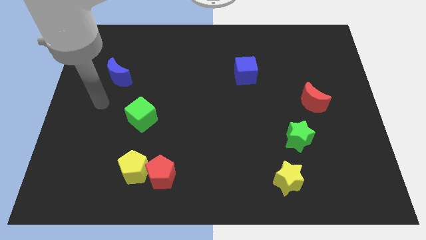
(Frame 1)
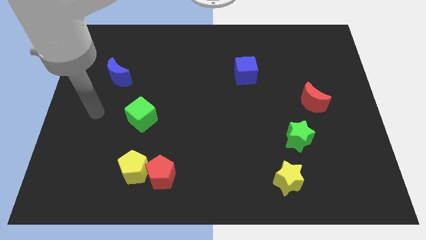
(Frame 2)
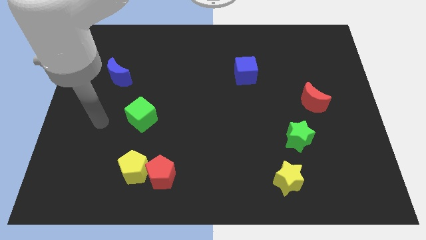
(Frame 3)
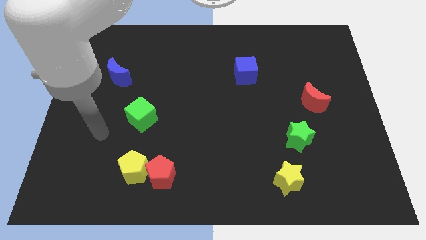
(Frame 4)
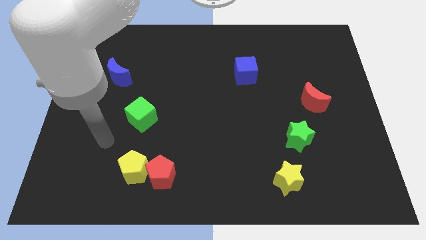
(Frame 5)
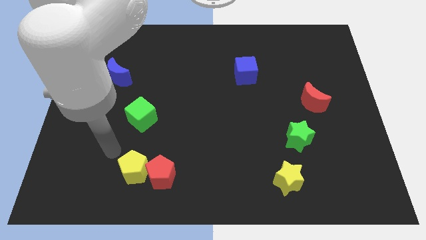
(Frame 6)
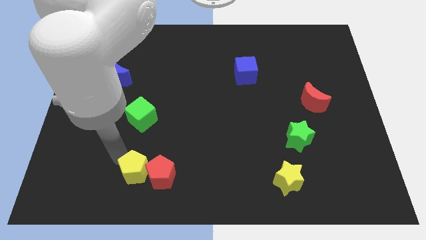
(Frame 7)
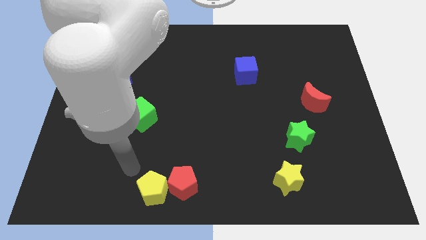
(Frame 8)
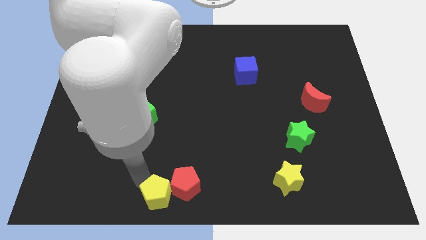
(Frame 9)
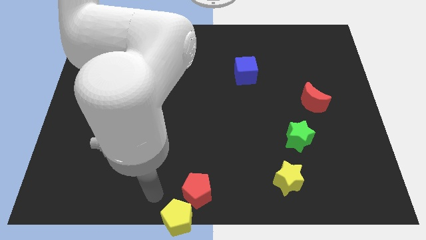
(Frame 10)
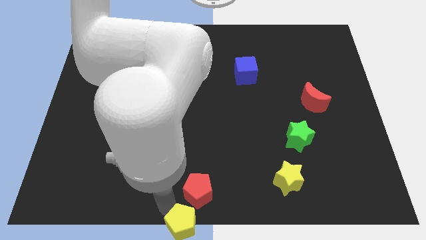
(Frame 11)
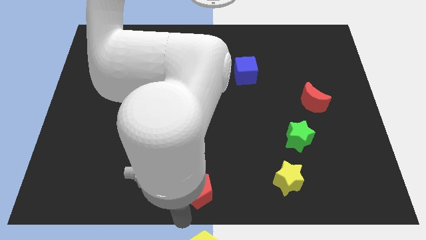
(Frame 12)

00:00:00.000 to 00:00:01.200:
separate the red pentagon from the yellow pentagon

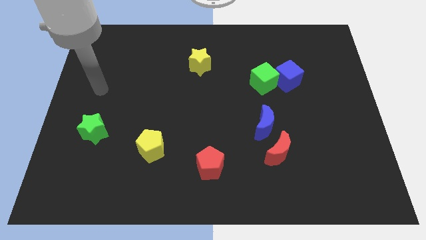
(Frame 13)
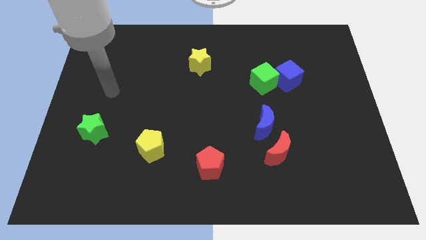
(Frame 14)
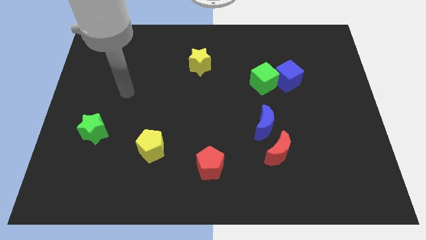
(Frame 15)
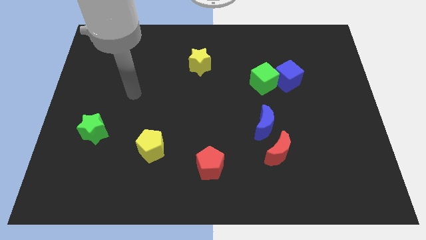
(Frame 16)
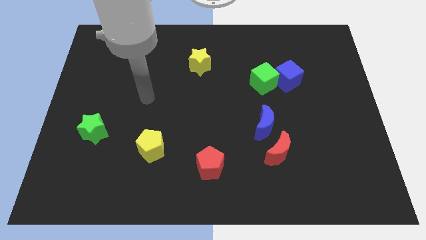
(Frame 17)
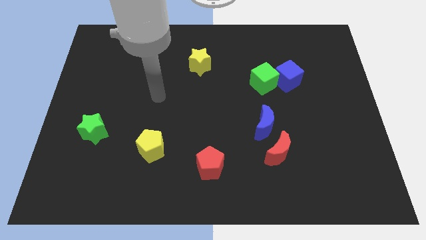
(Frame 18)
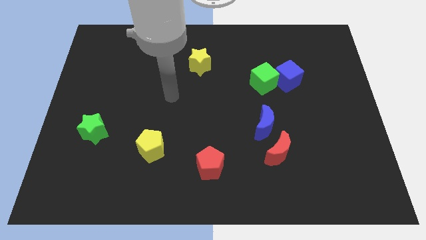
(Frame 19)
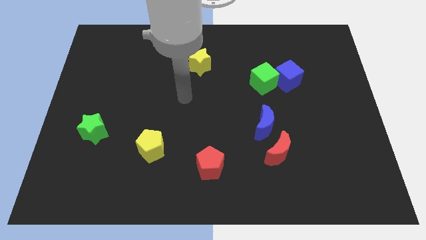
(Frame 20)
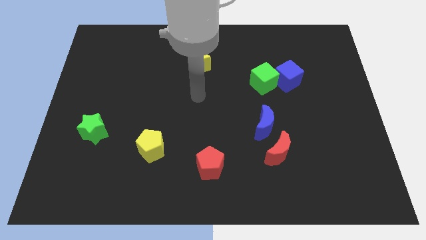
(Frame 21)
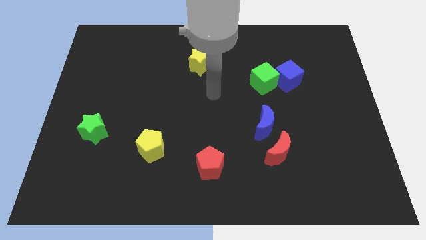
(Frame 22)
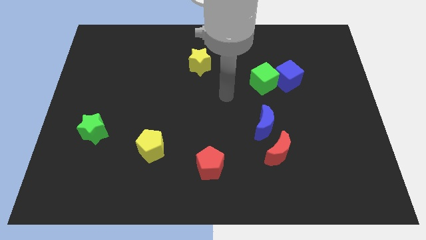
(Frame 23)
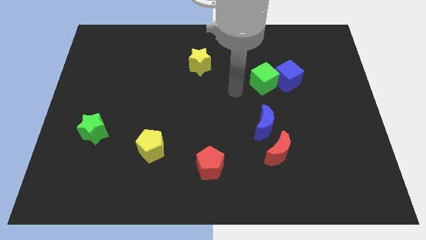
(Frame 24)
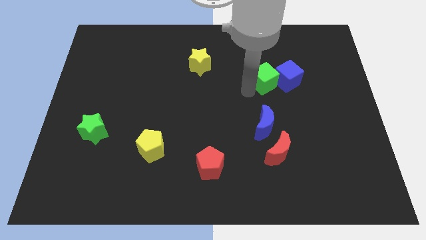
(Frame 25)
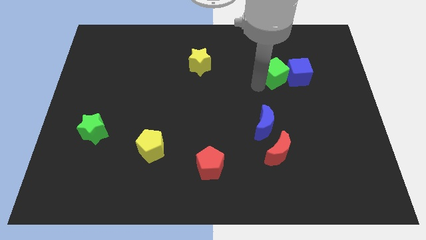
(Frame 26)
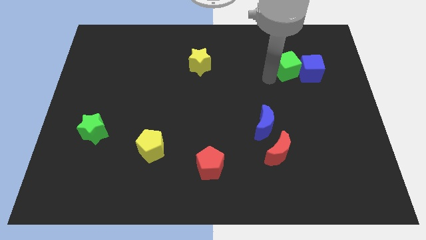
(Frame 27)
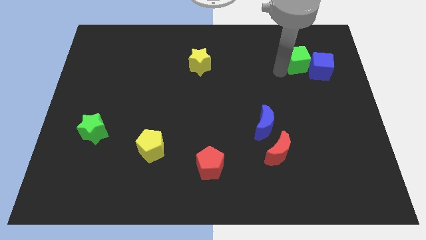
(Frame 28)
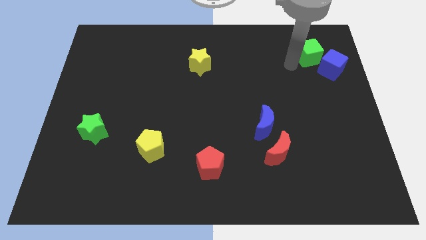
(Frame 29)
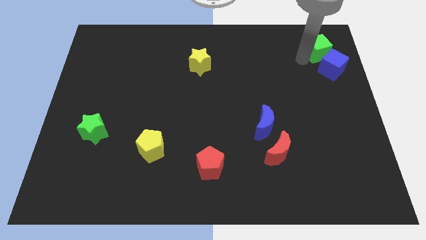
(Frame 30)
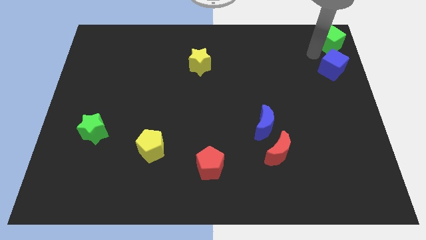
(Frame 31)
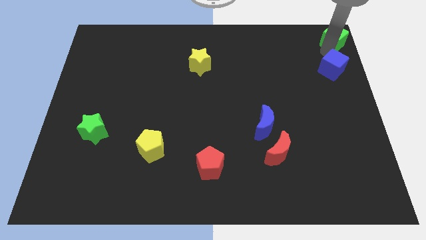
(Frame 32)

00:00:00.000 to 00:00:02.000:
separate the blue cube from the green cube

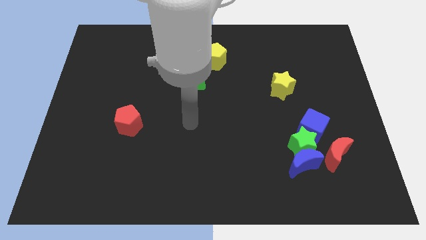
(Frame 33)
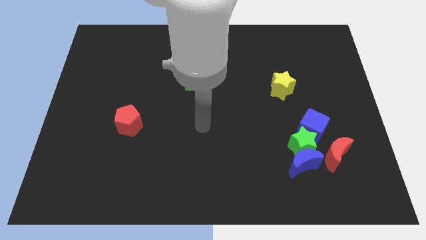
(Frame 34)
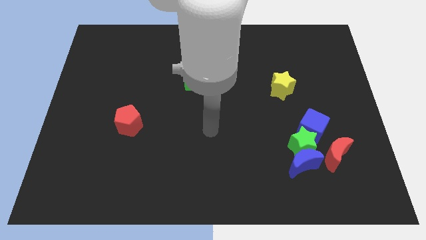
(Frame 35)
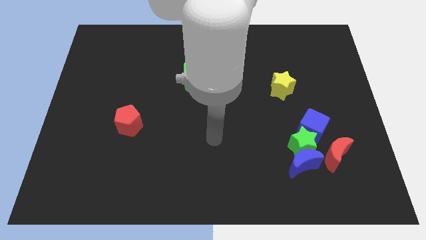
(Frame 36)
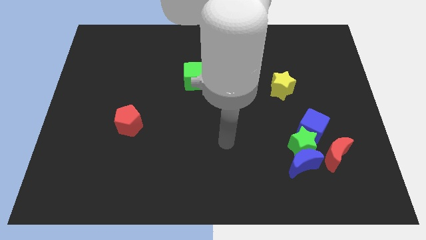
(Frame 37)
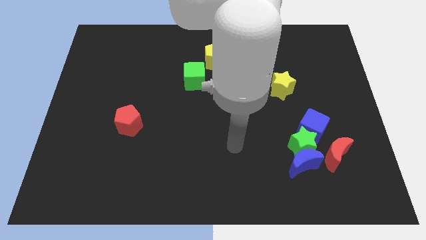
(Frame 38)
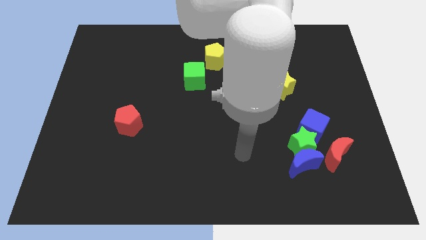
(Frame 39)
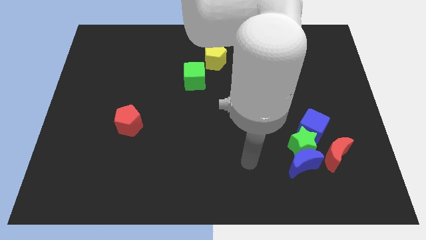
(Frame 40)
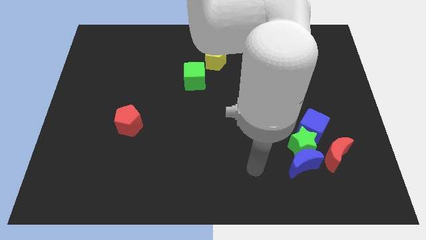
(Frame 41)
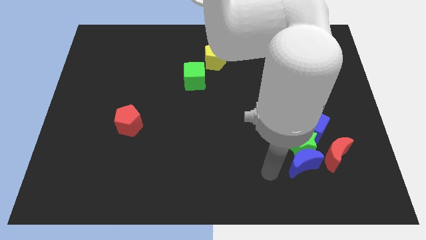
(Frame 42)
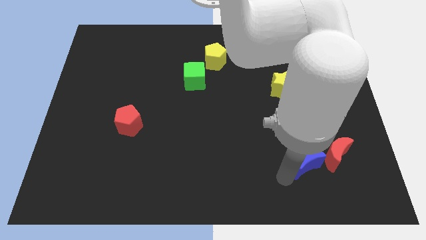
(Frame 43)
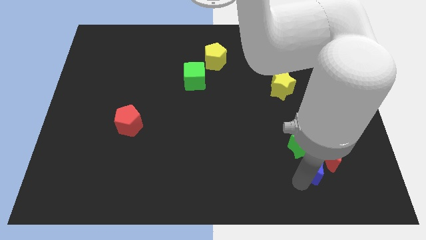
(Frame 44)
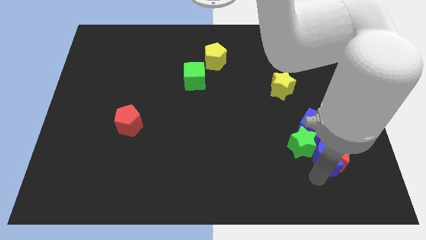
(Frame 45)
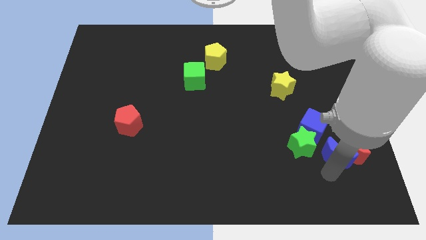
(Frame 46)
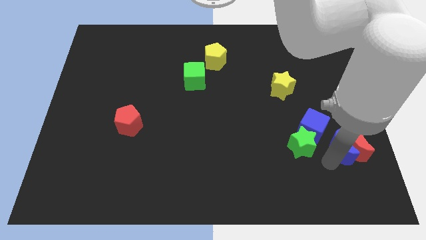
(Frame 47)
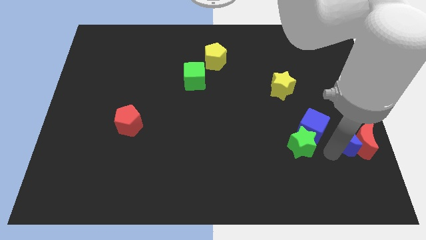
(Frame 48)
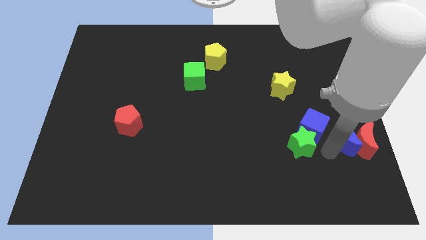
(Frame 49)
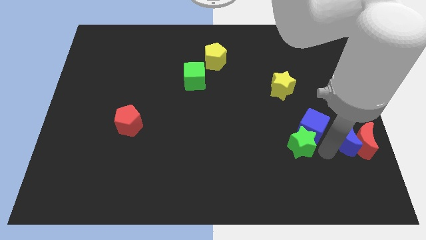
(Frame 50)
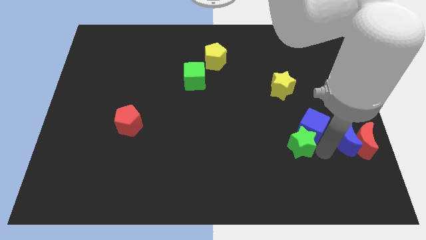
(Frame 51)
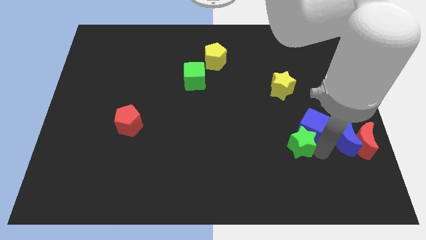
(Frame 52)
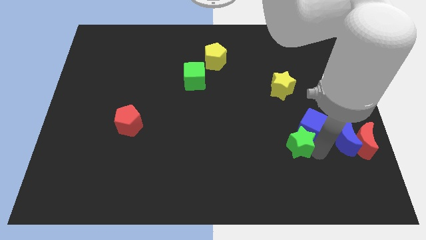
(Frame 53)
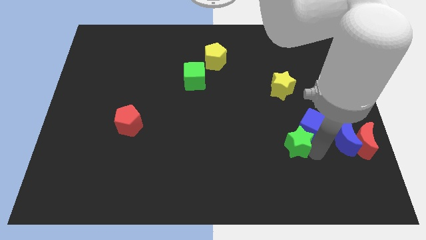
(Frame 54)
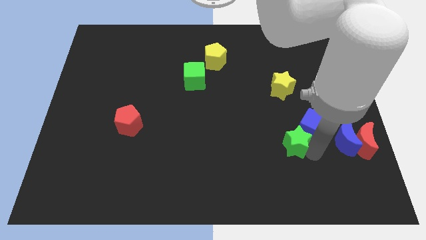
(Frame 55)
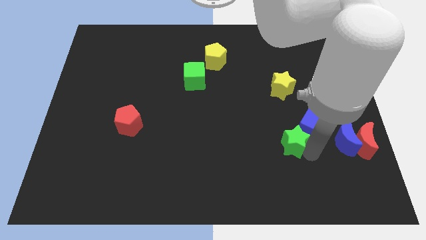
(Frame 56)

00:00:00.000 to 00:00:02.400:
move the green star away from the group of blocks

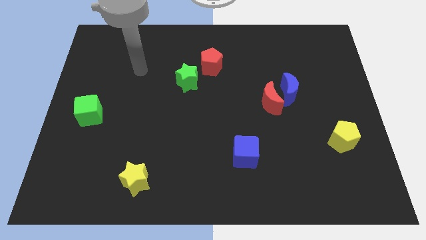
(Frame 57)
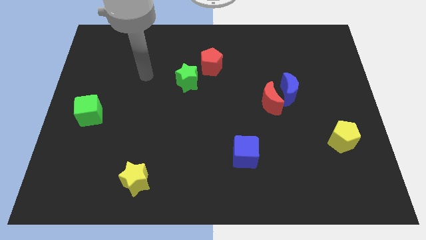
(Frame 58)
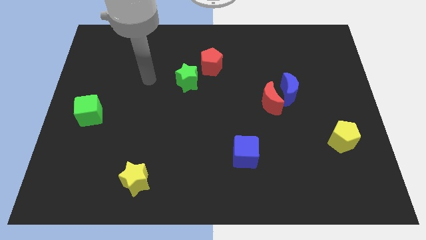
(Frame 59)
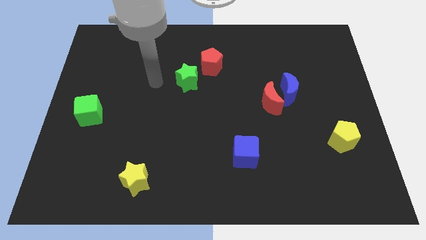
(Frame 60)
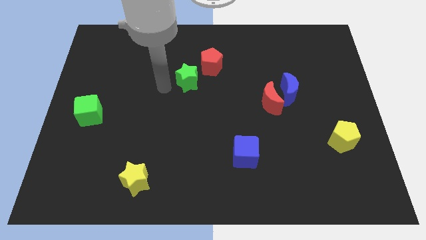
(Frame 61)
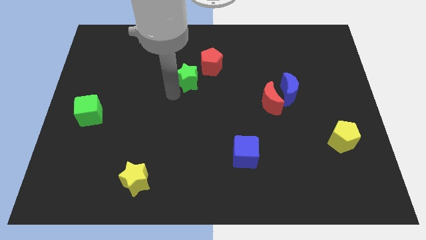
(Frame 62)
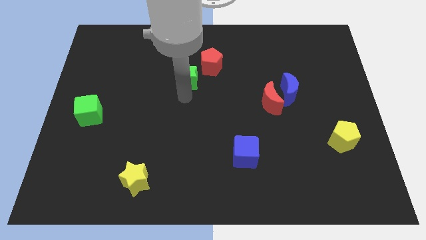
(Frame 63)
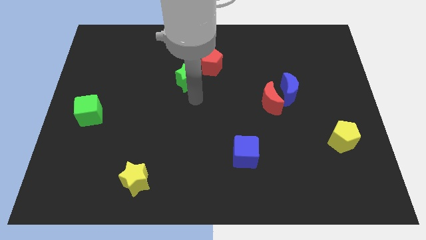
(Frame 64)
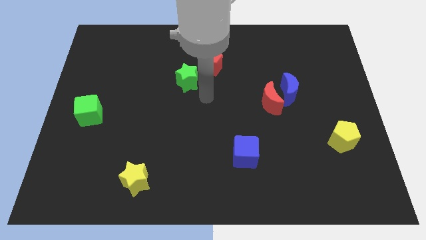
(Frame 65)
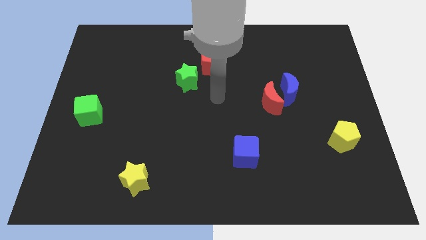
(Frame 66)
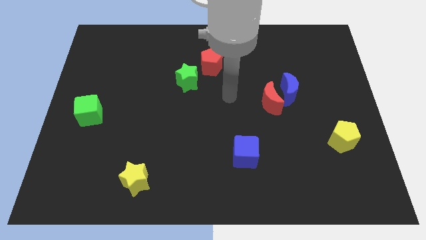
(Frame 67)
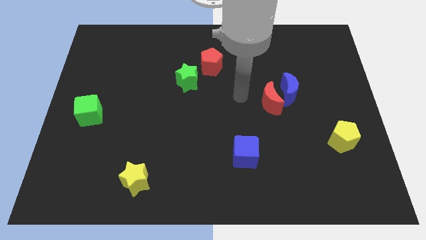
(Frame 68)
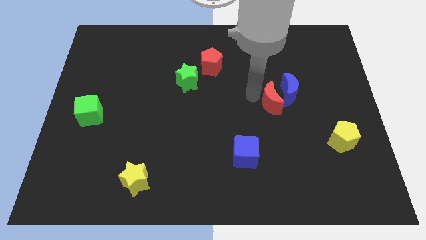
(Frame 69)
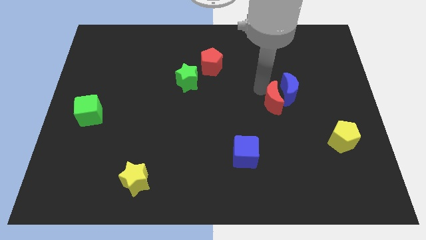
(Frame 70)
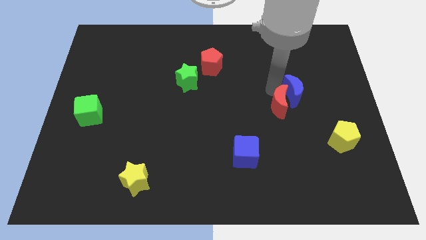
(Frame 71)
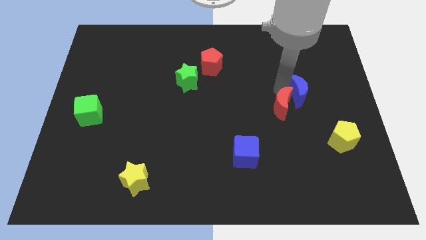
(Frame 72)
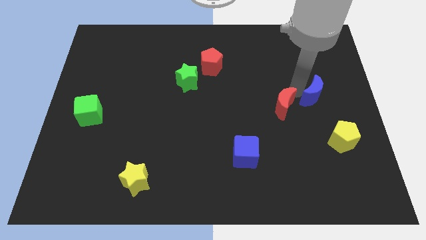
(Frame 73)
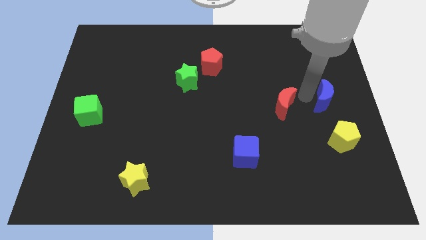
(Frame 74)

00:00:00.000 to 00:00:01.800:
move the red moon away from the blue moon

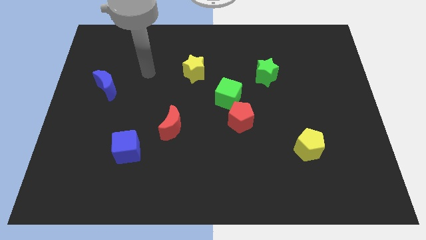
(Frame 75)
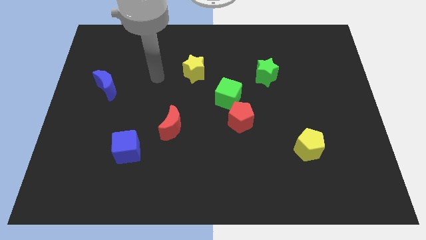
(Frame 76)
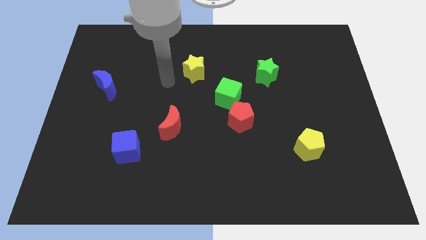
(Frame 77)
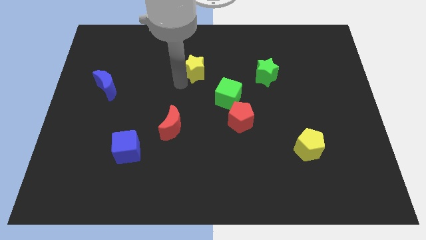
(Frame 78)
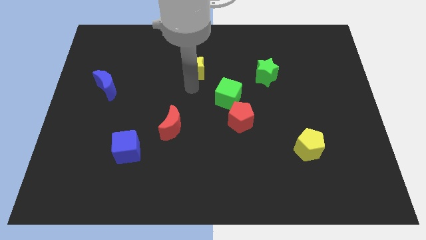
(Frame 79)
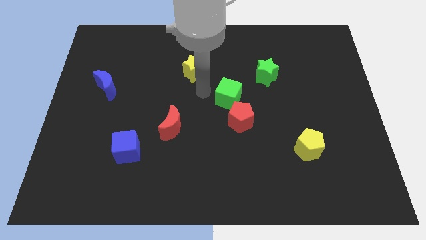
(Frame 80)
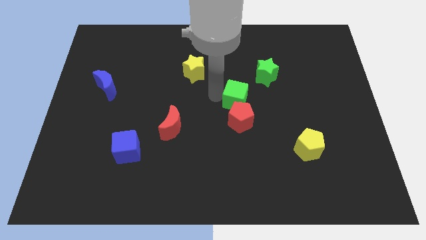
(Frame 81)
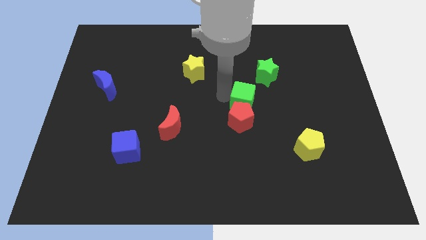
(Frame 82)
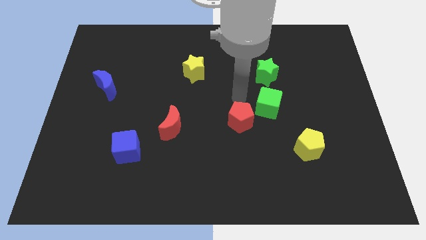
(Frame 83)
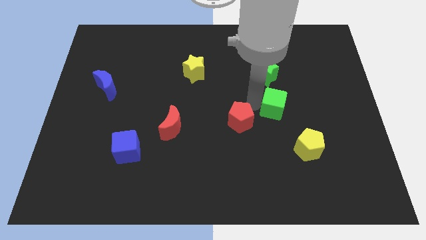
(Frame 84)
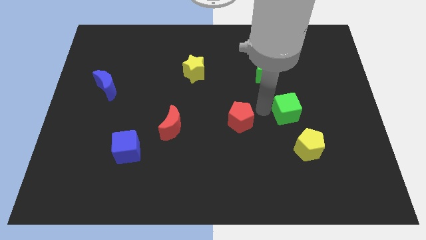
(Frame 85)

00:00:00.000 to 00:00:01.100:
pull the red pentagon apart from the green cube

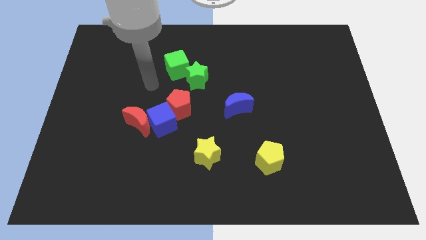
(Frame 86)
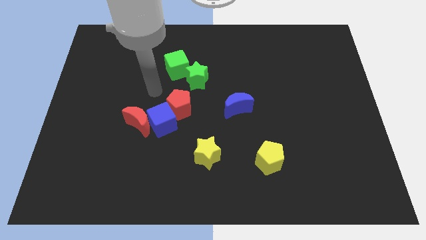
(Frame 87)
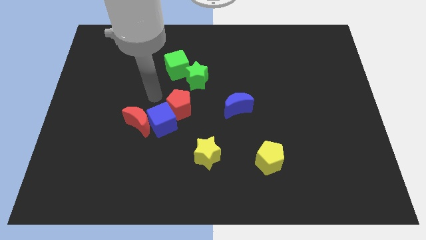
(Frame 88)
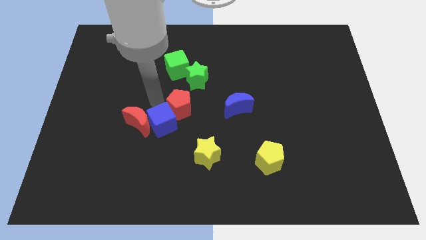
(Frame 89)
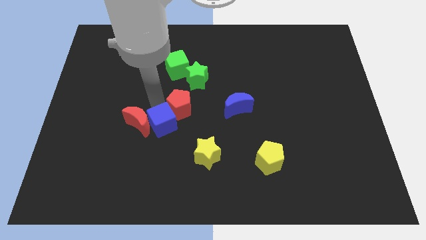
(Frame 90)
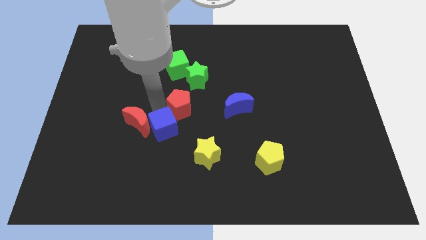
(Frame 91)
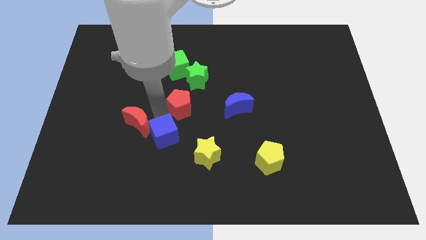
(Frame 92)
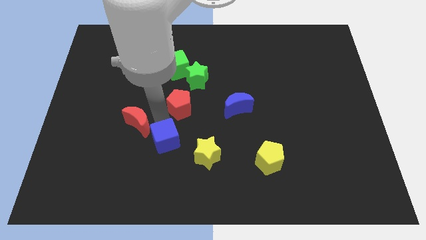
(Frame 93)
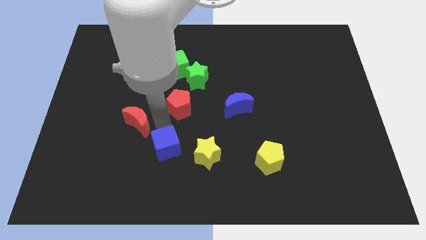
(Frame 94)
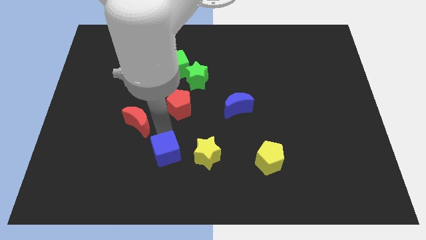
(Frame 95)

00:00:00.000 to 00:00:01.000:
separate the blue cube from the red moon and red pentagon
